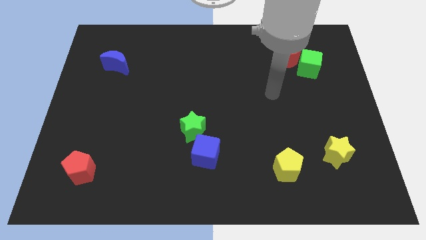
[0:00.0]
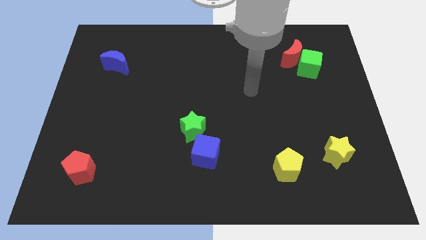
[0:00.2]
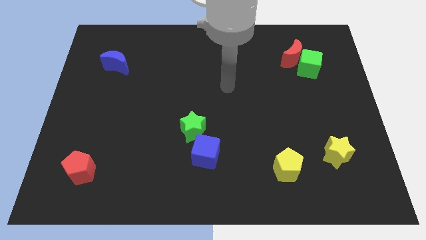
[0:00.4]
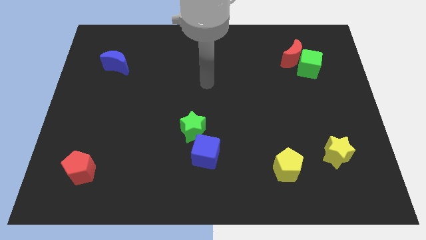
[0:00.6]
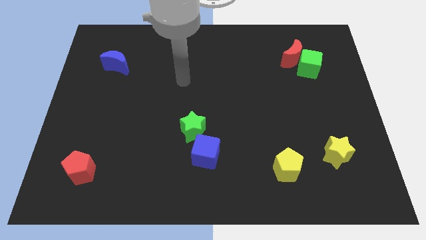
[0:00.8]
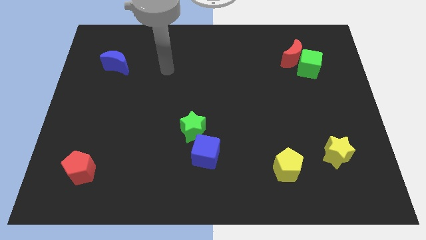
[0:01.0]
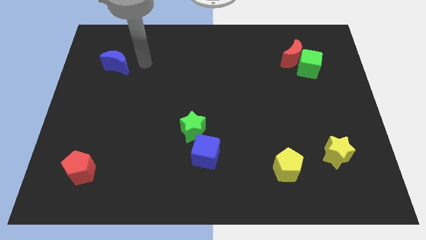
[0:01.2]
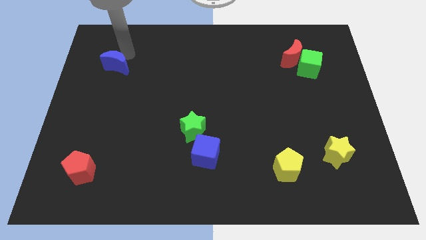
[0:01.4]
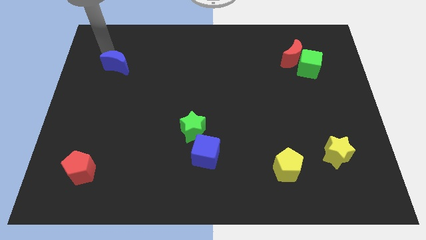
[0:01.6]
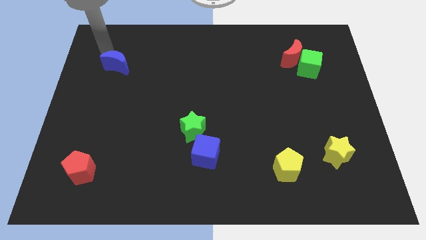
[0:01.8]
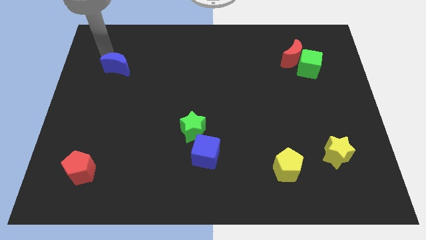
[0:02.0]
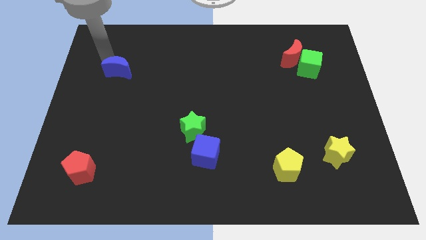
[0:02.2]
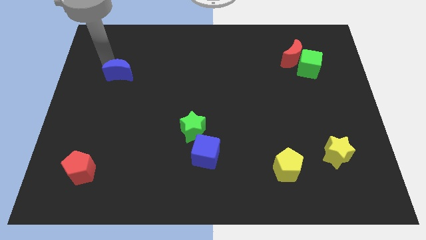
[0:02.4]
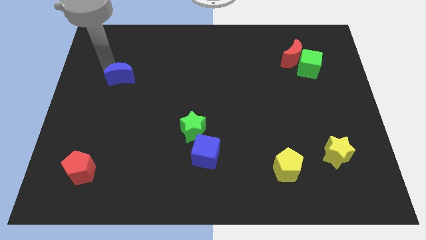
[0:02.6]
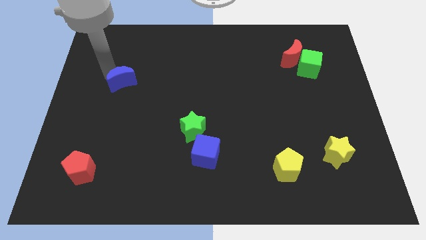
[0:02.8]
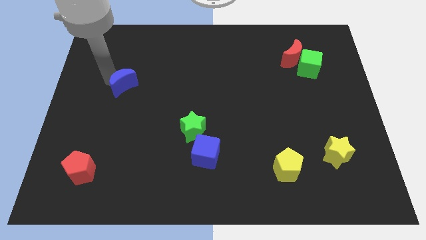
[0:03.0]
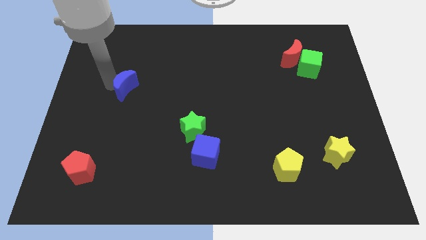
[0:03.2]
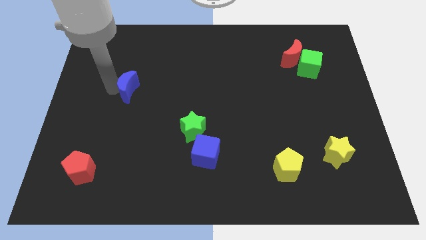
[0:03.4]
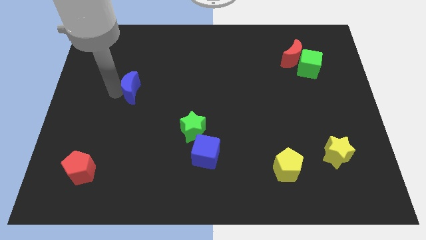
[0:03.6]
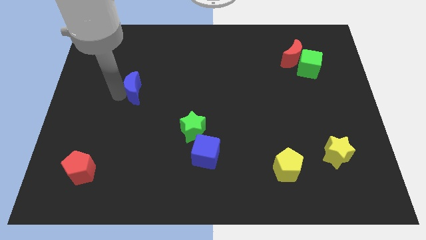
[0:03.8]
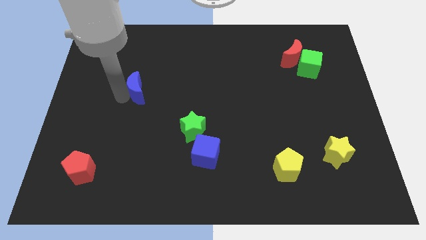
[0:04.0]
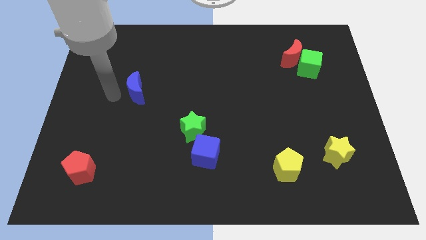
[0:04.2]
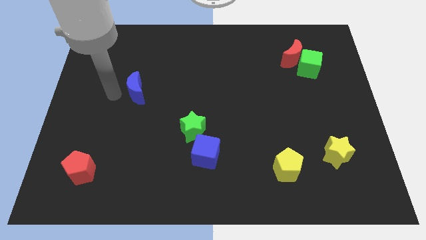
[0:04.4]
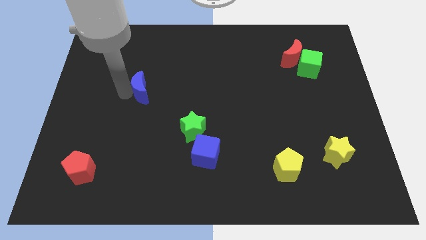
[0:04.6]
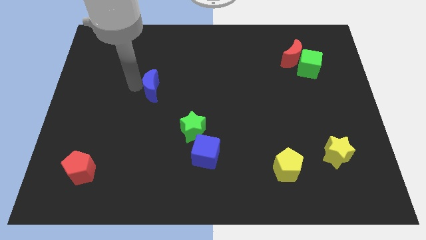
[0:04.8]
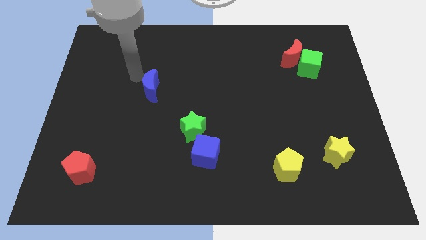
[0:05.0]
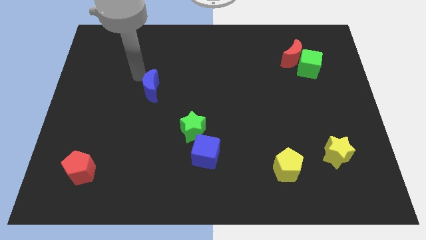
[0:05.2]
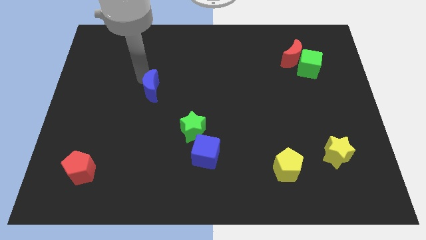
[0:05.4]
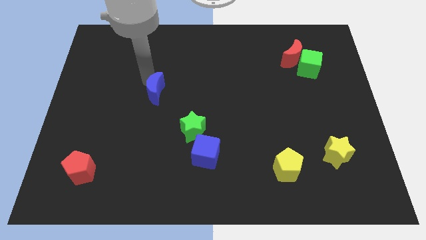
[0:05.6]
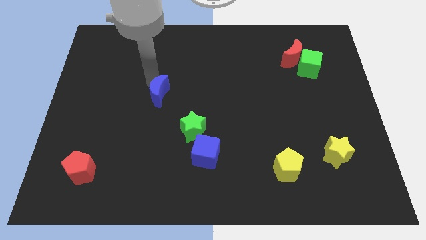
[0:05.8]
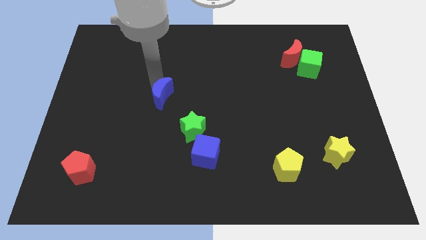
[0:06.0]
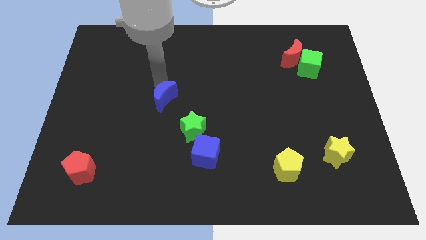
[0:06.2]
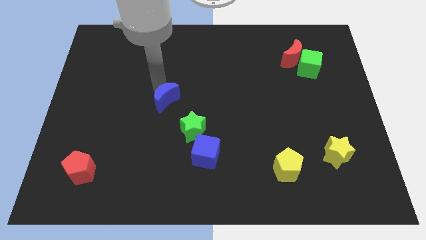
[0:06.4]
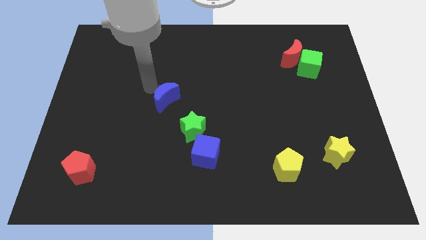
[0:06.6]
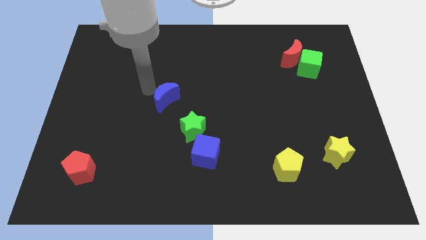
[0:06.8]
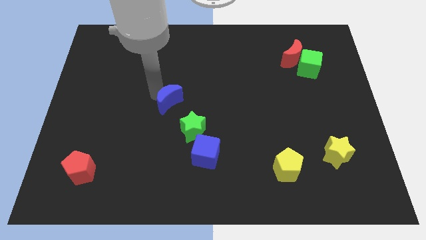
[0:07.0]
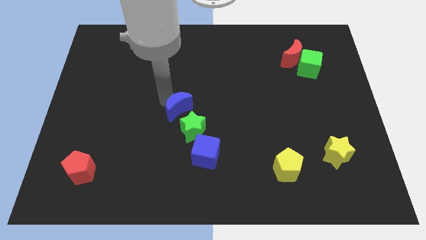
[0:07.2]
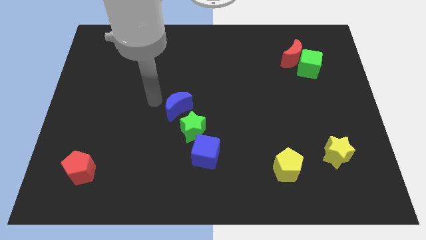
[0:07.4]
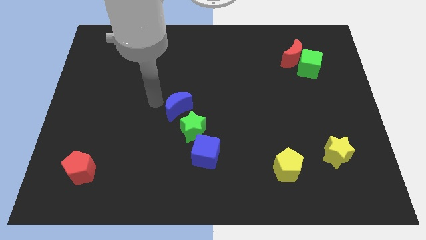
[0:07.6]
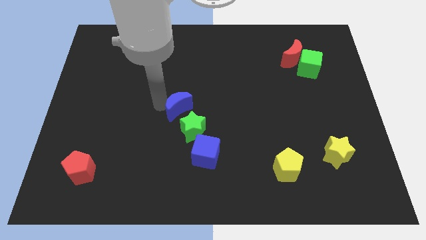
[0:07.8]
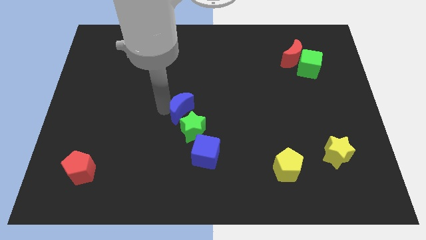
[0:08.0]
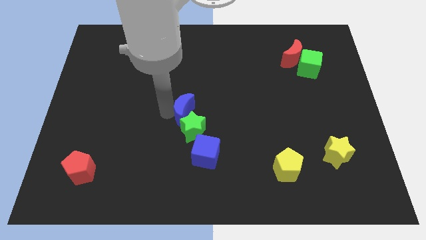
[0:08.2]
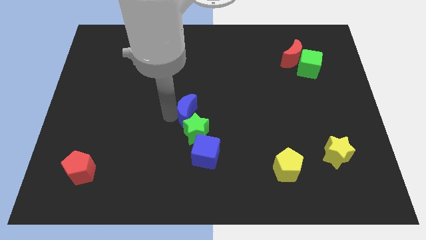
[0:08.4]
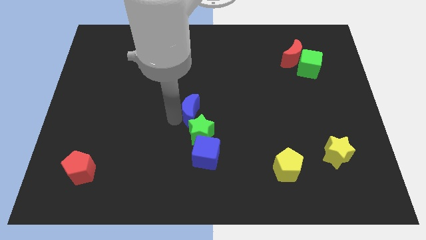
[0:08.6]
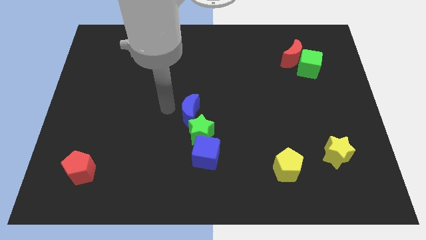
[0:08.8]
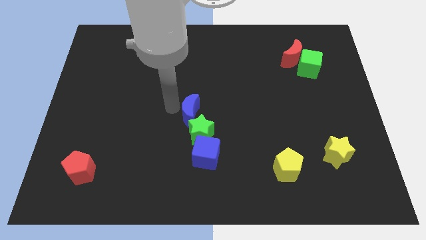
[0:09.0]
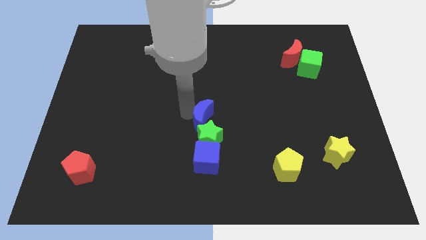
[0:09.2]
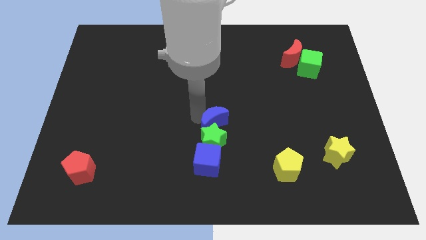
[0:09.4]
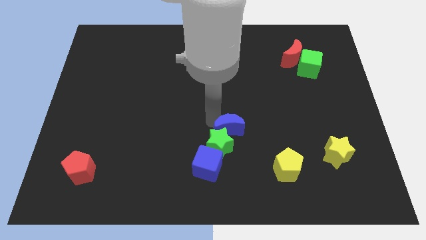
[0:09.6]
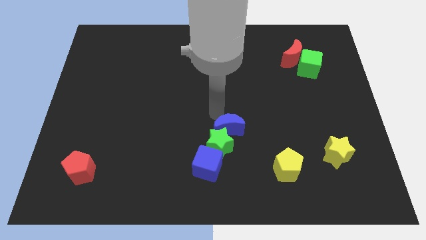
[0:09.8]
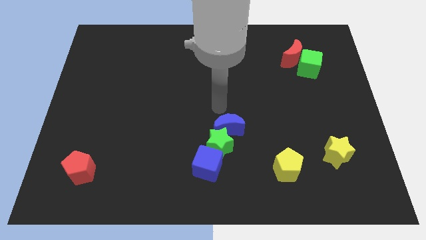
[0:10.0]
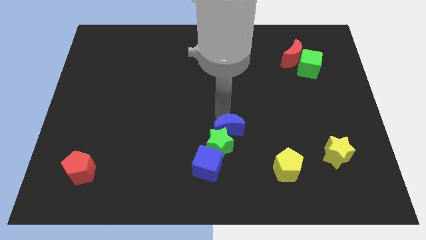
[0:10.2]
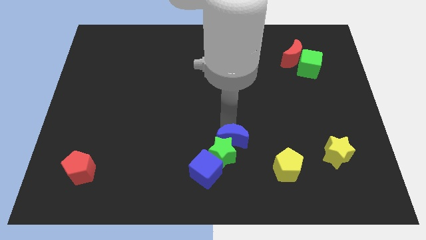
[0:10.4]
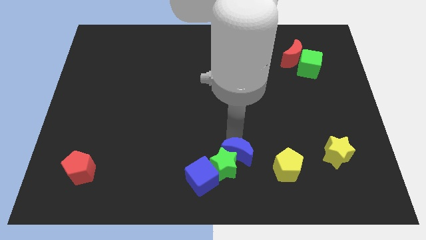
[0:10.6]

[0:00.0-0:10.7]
slide the blue moon to the left of the yellow pentagon

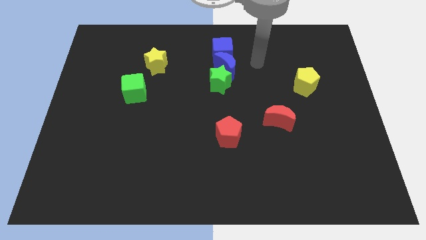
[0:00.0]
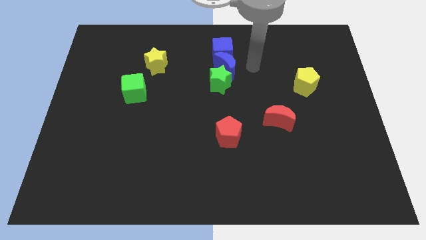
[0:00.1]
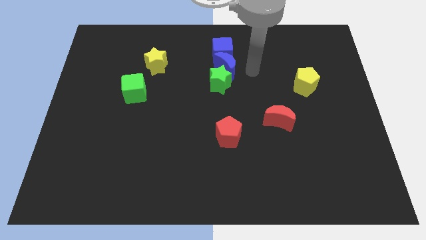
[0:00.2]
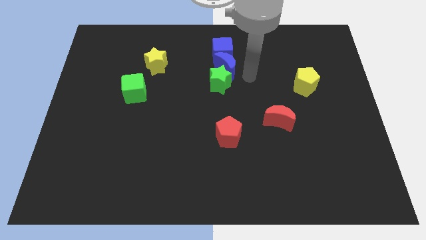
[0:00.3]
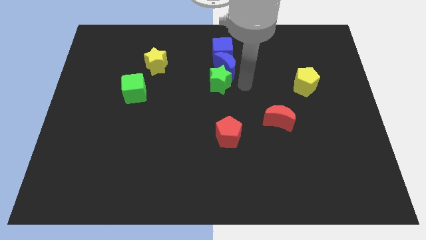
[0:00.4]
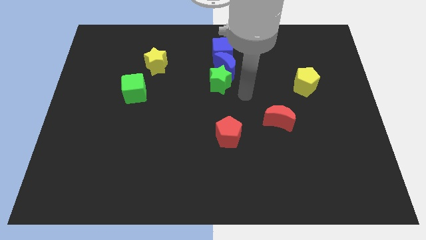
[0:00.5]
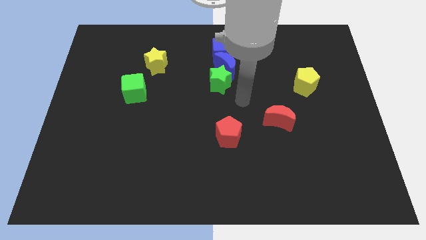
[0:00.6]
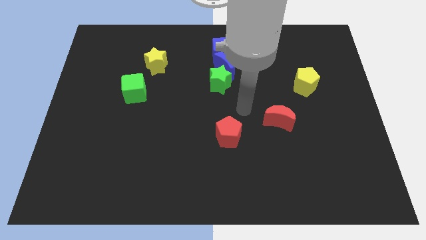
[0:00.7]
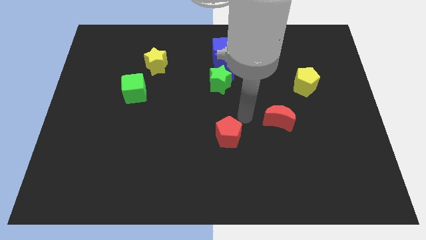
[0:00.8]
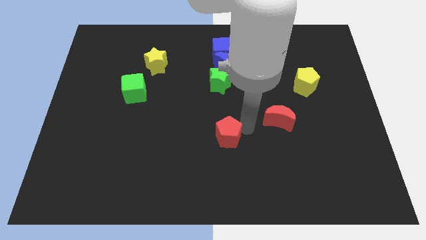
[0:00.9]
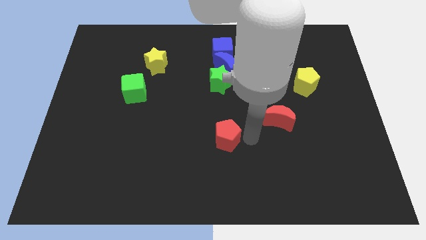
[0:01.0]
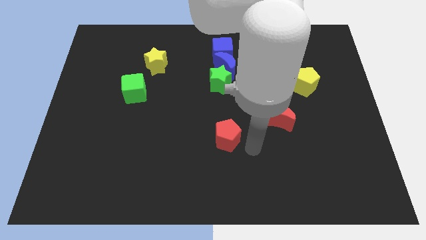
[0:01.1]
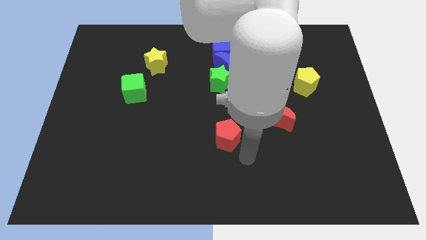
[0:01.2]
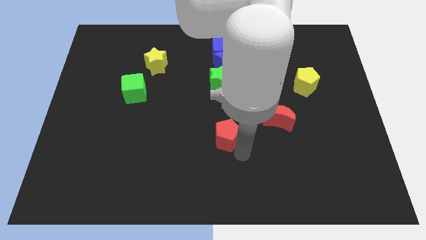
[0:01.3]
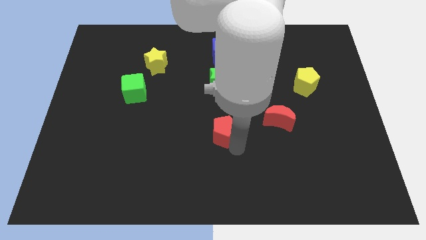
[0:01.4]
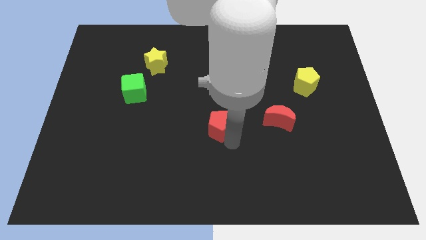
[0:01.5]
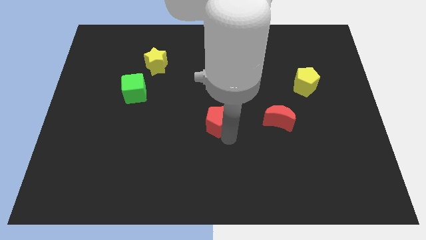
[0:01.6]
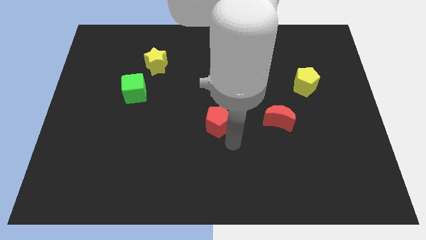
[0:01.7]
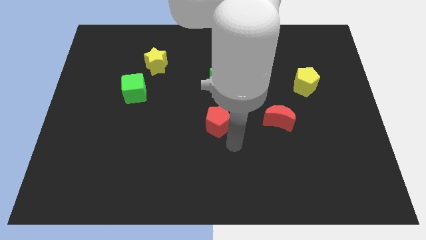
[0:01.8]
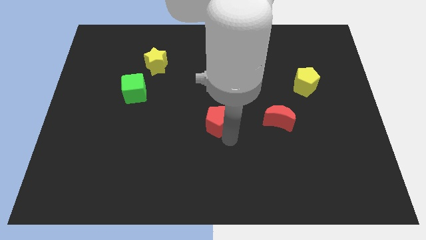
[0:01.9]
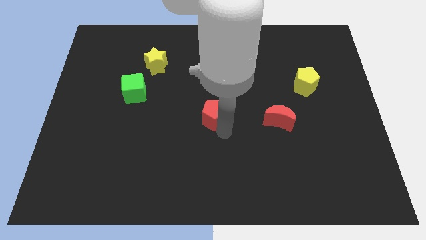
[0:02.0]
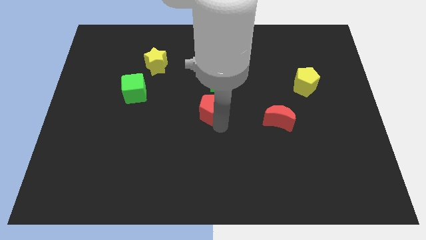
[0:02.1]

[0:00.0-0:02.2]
put the red pentagon to the bottom left of the green star
